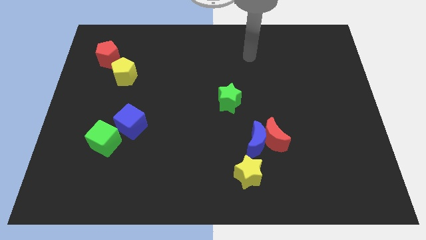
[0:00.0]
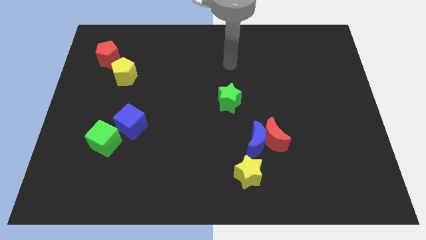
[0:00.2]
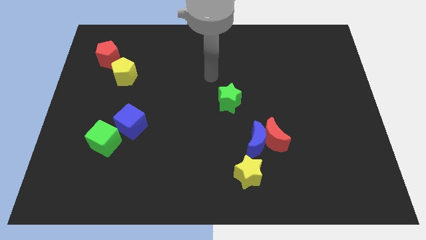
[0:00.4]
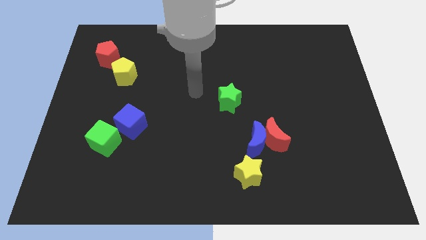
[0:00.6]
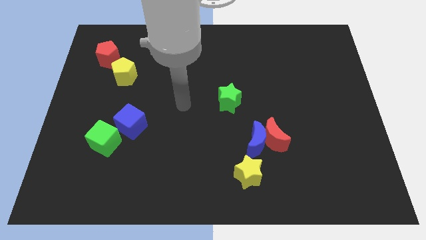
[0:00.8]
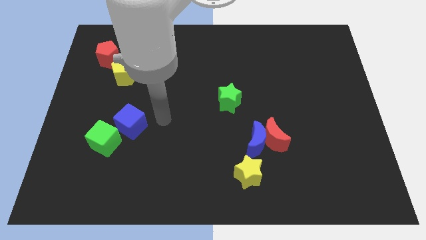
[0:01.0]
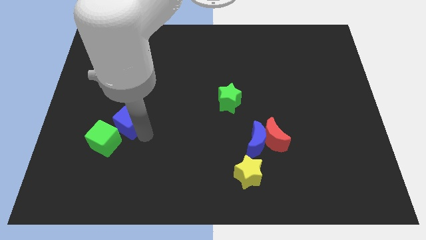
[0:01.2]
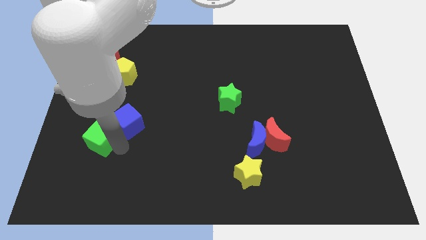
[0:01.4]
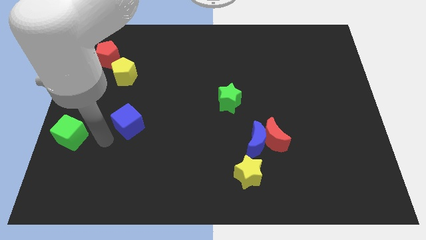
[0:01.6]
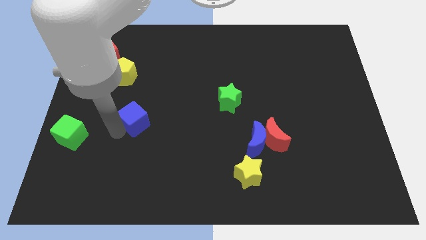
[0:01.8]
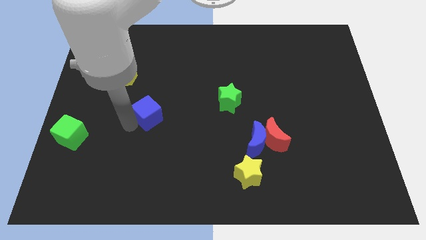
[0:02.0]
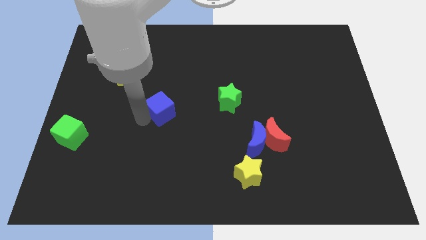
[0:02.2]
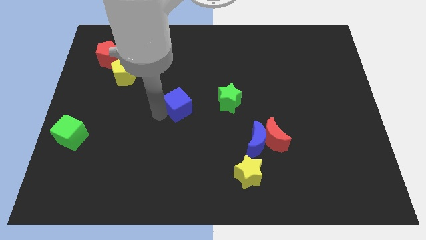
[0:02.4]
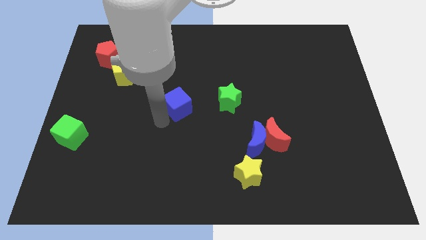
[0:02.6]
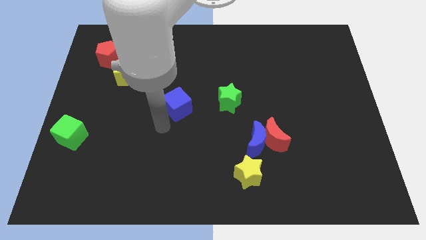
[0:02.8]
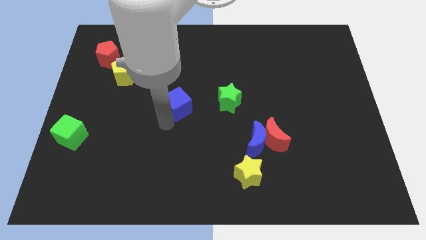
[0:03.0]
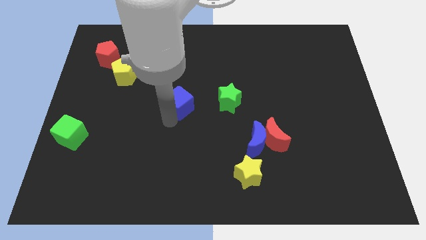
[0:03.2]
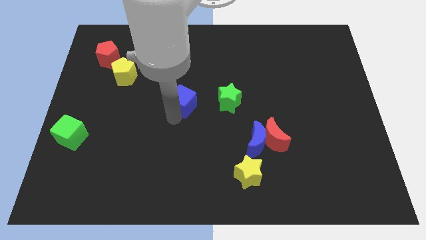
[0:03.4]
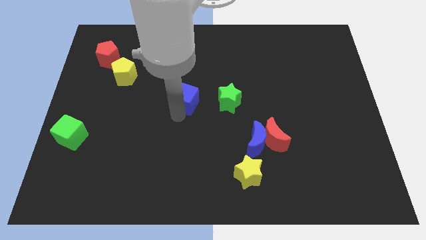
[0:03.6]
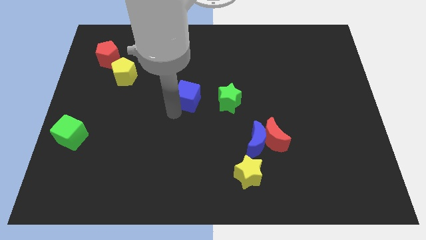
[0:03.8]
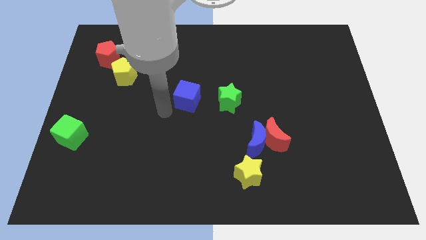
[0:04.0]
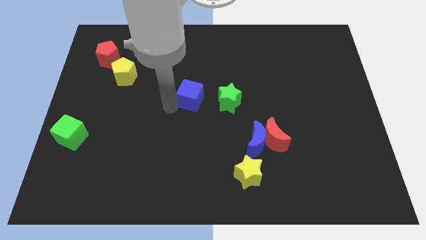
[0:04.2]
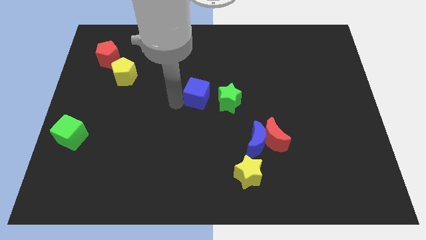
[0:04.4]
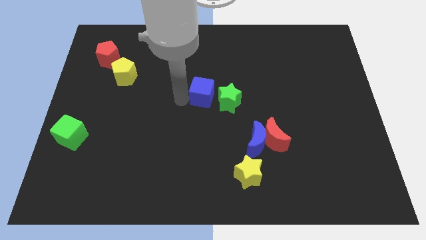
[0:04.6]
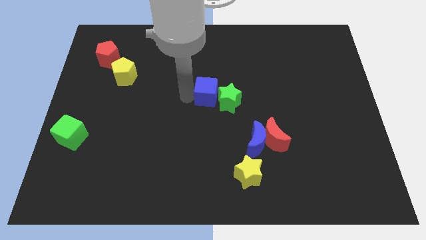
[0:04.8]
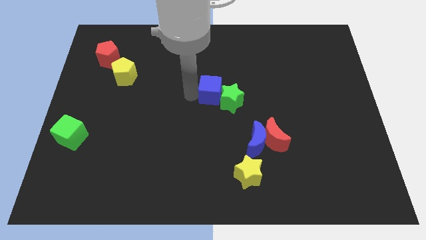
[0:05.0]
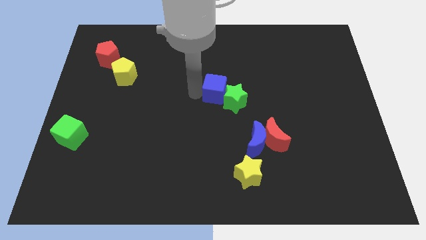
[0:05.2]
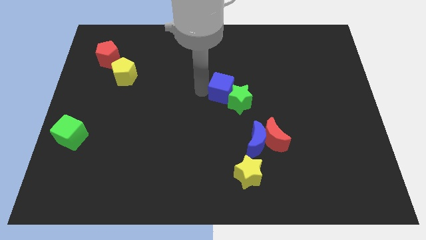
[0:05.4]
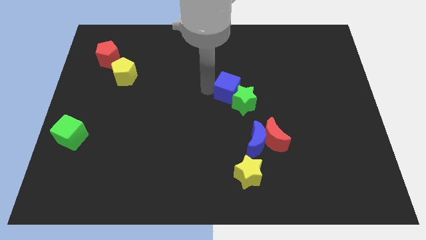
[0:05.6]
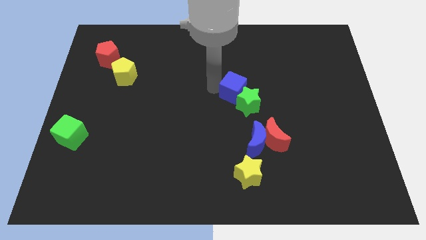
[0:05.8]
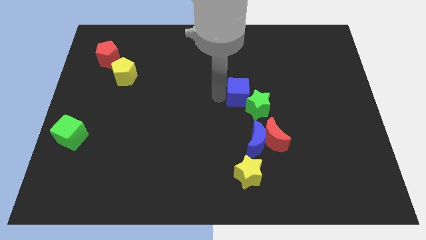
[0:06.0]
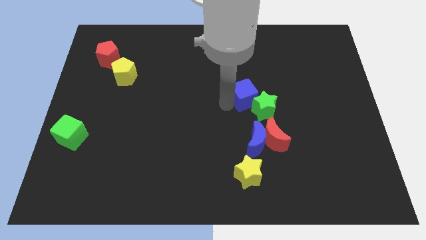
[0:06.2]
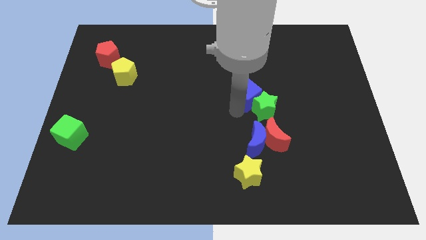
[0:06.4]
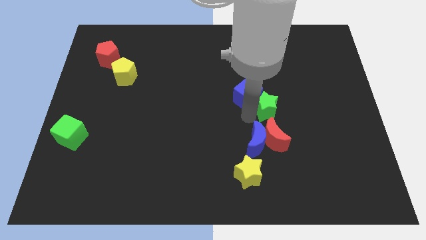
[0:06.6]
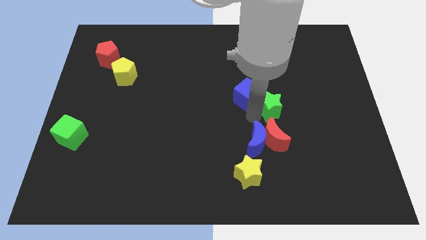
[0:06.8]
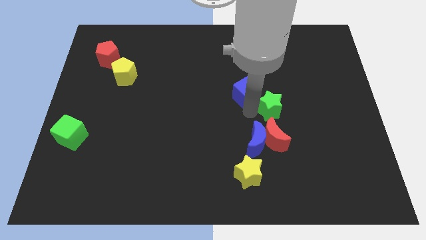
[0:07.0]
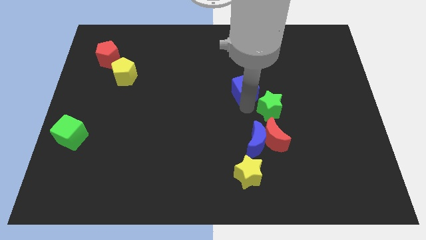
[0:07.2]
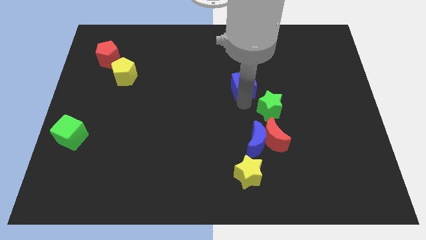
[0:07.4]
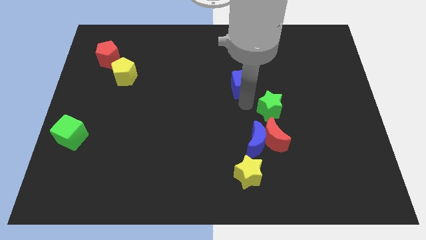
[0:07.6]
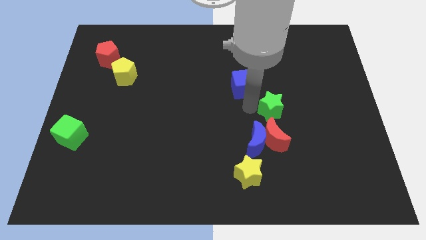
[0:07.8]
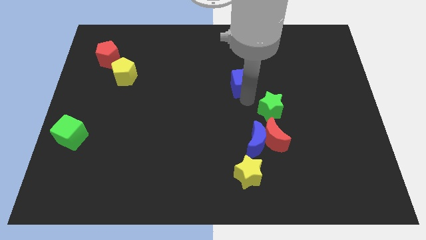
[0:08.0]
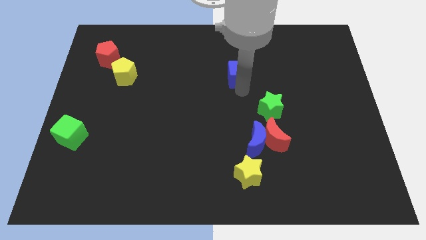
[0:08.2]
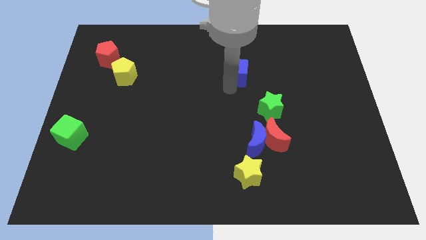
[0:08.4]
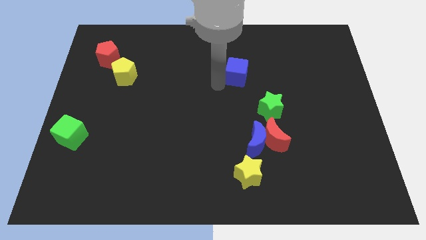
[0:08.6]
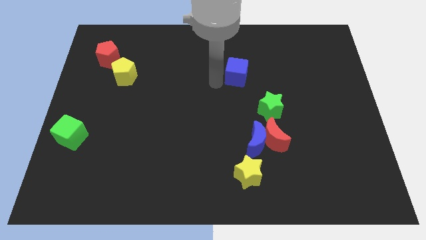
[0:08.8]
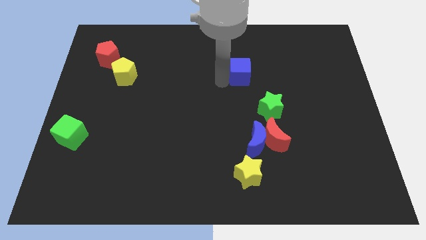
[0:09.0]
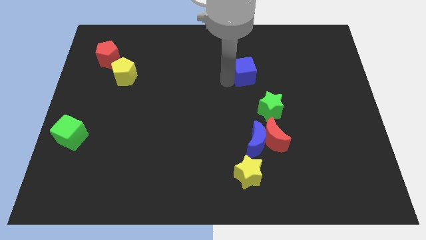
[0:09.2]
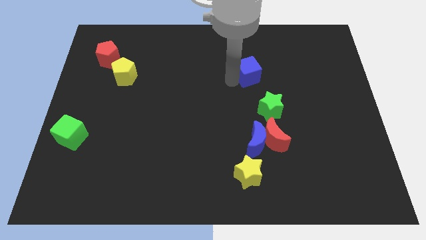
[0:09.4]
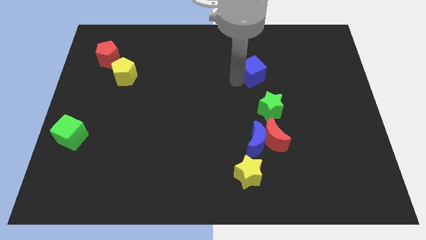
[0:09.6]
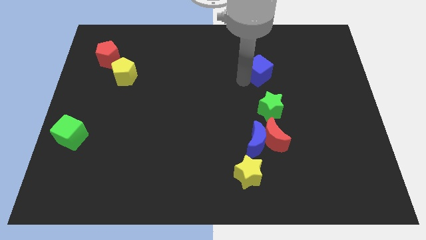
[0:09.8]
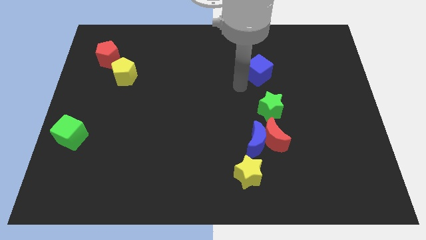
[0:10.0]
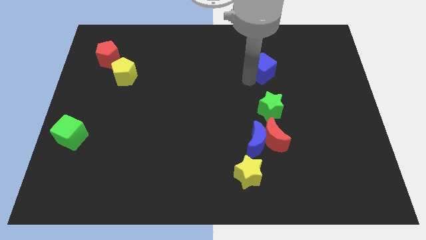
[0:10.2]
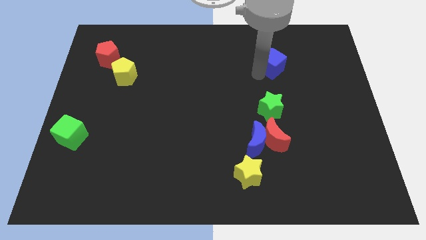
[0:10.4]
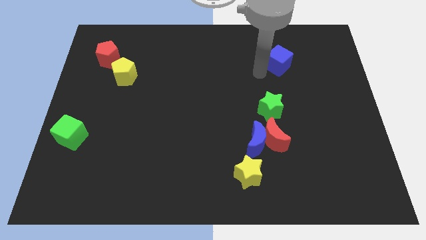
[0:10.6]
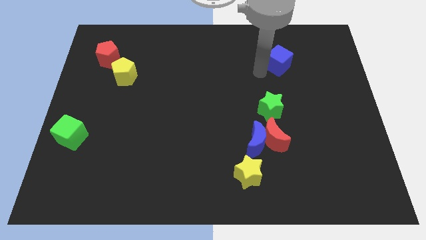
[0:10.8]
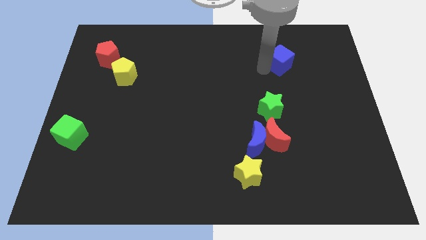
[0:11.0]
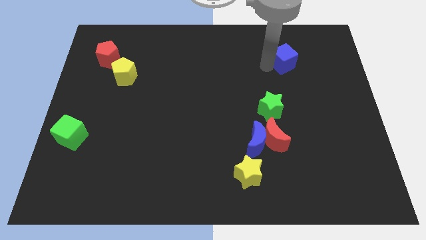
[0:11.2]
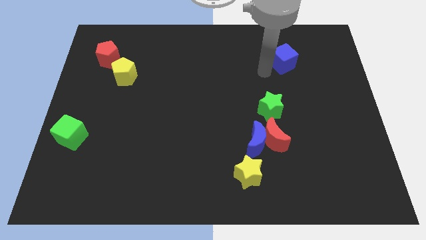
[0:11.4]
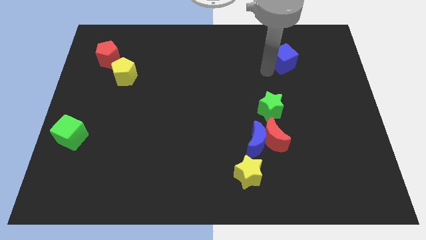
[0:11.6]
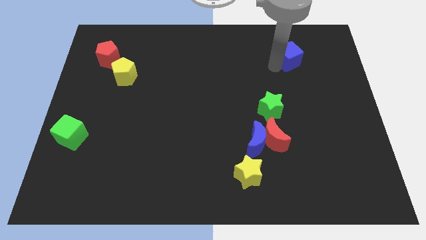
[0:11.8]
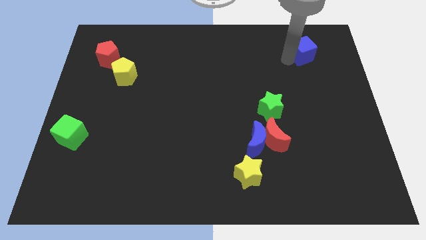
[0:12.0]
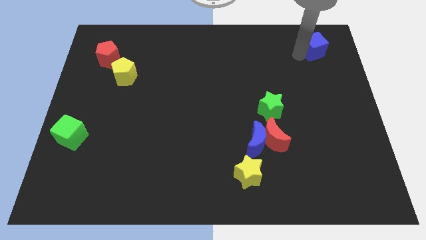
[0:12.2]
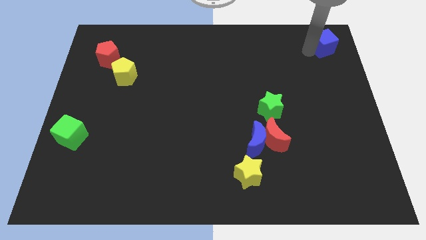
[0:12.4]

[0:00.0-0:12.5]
put the blue cube to the top right corner

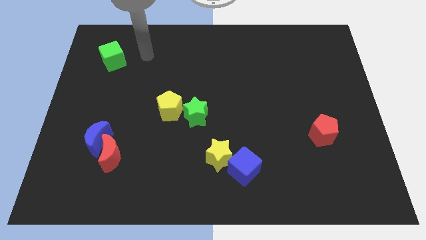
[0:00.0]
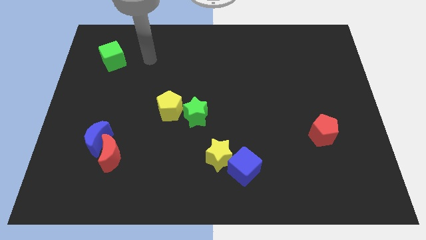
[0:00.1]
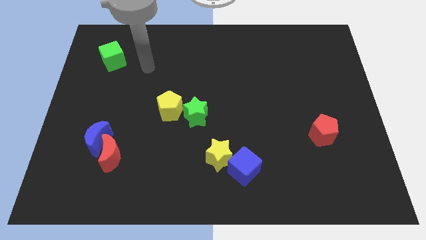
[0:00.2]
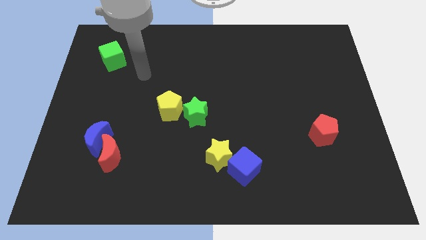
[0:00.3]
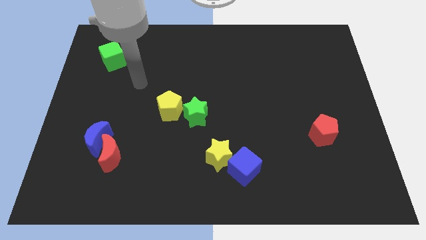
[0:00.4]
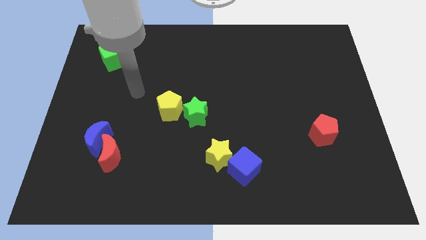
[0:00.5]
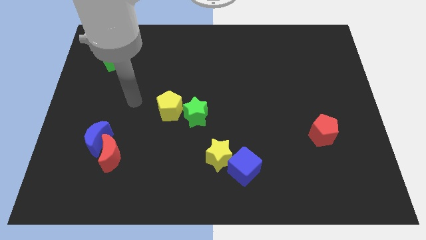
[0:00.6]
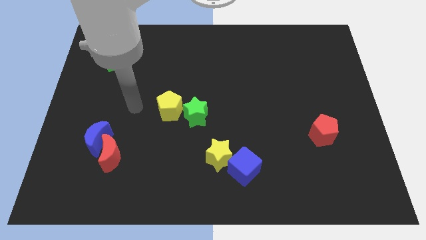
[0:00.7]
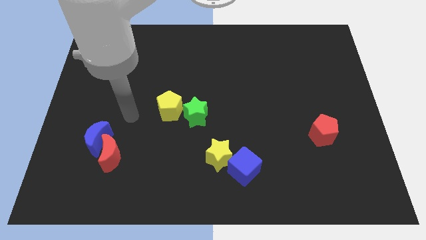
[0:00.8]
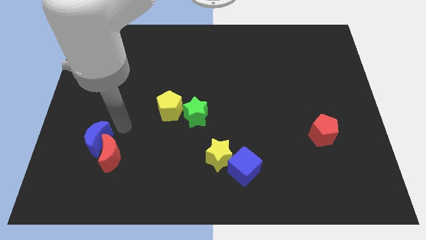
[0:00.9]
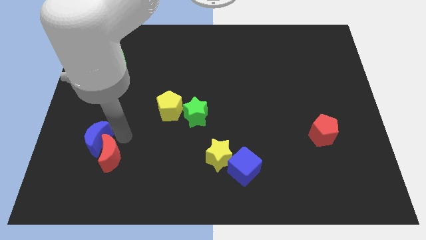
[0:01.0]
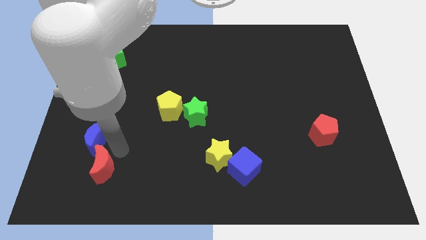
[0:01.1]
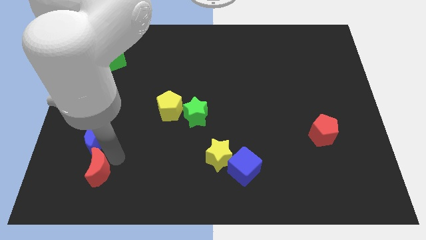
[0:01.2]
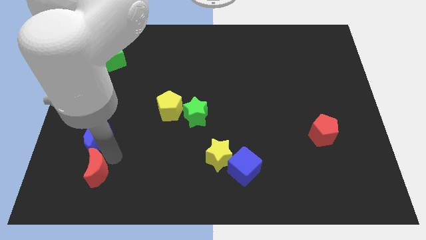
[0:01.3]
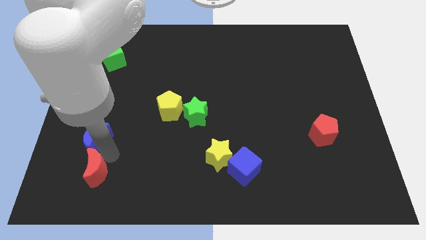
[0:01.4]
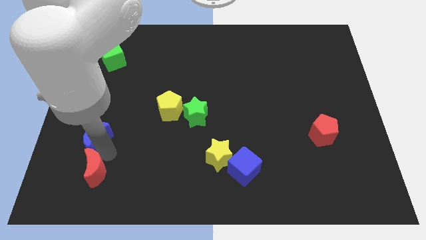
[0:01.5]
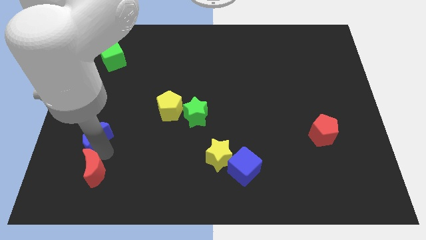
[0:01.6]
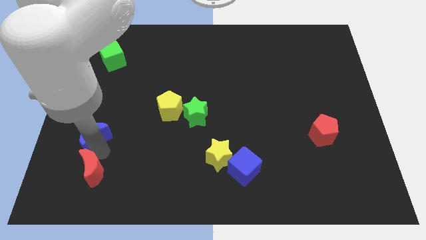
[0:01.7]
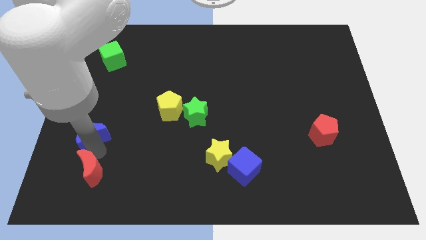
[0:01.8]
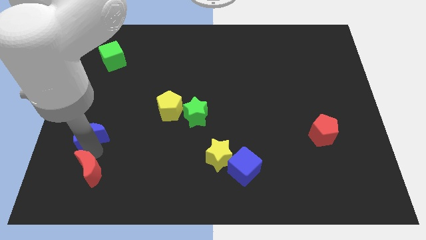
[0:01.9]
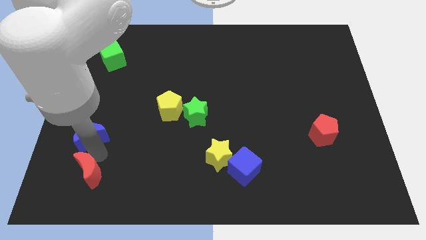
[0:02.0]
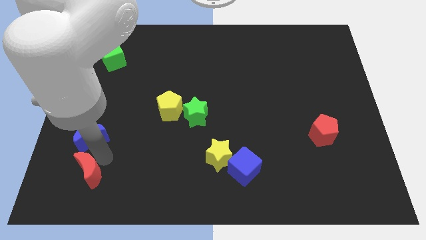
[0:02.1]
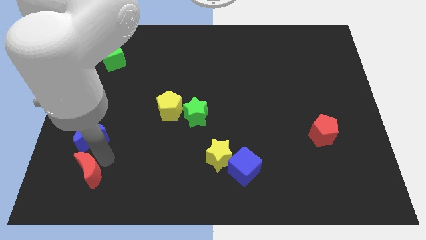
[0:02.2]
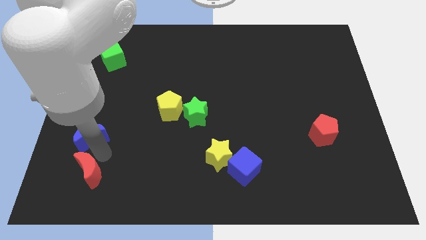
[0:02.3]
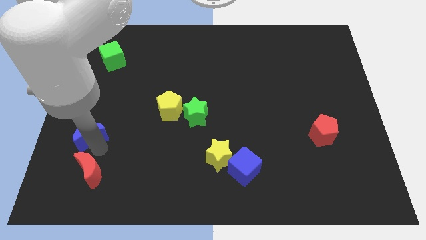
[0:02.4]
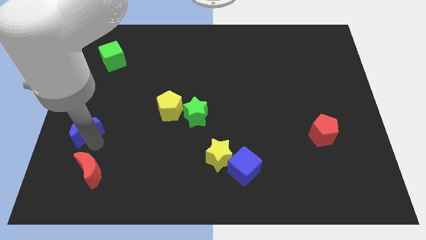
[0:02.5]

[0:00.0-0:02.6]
put the blue moon to the center left
